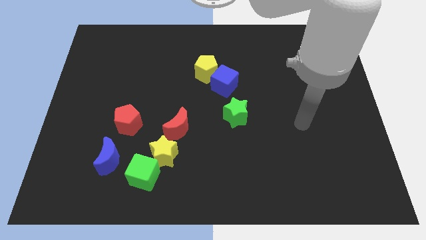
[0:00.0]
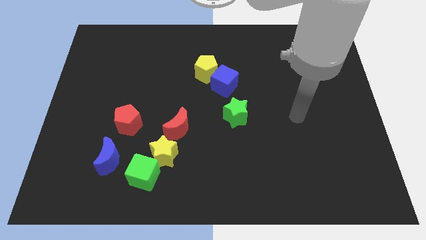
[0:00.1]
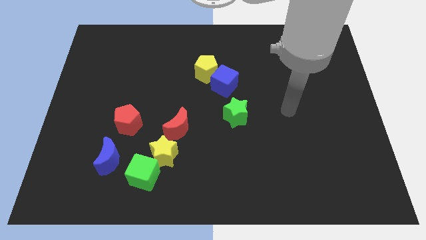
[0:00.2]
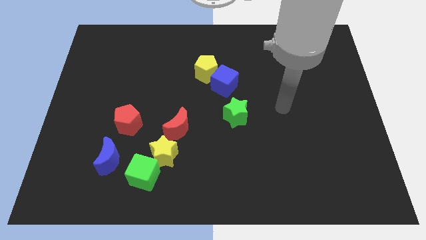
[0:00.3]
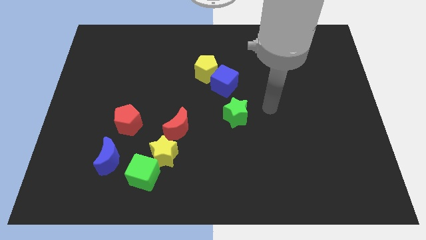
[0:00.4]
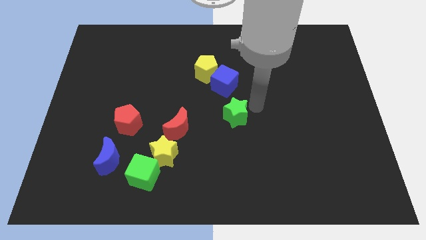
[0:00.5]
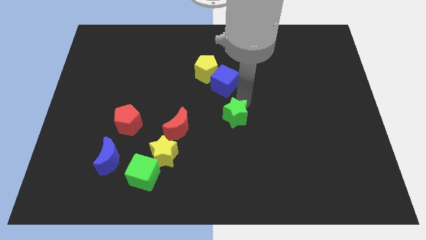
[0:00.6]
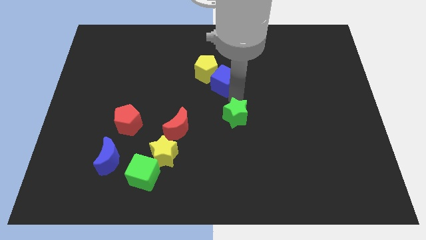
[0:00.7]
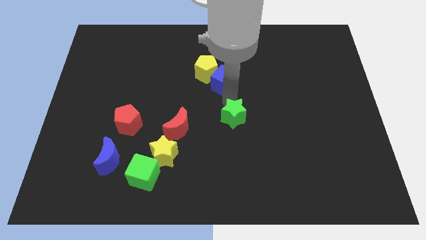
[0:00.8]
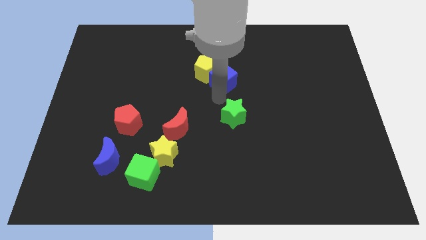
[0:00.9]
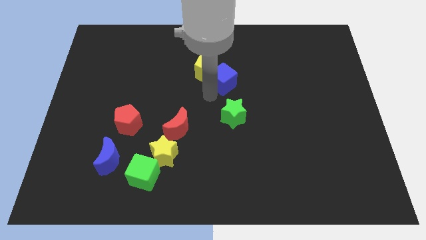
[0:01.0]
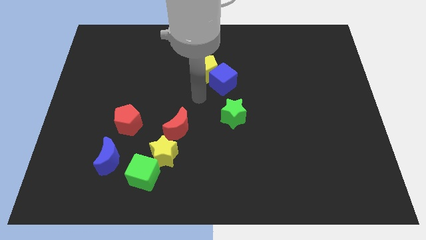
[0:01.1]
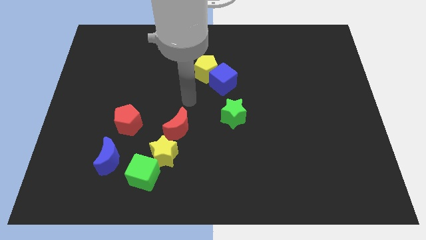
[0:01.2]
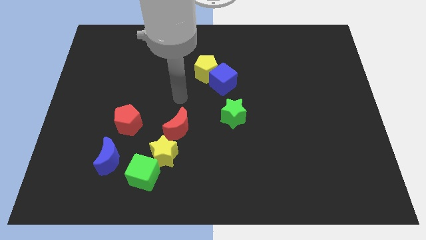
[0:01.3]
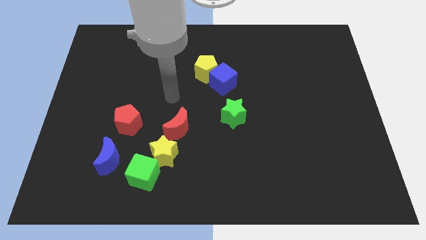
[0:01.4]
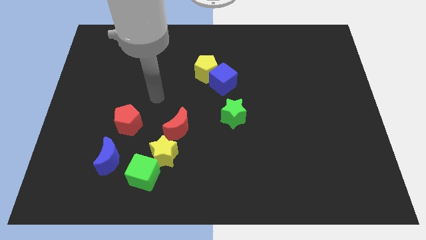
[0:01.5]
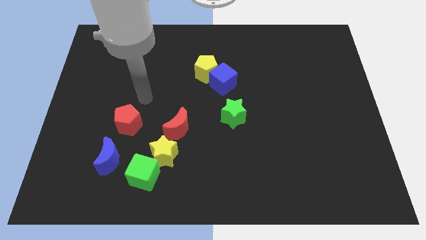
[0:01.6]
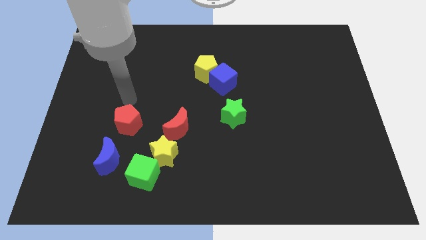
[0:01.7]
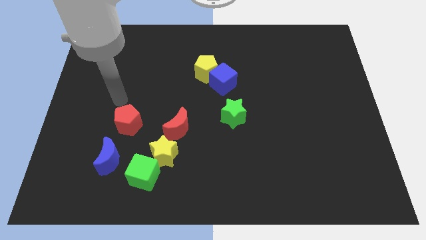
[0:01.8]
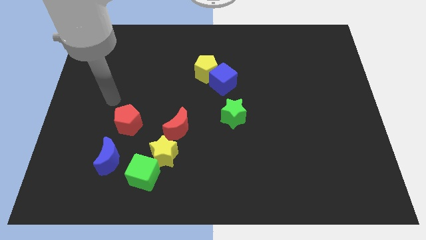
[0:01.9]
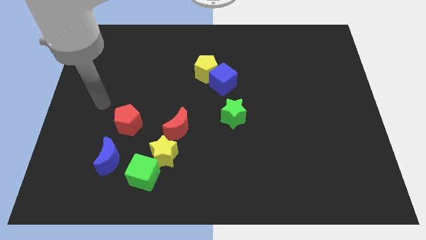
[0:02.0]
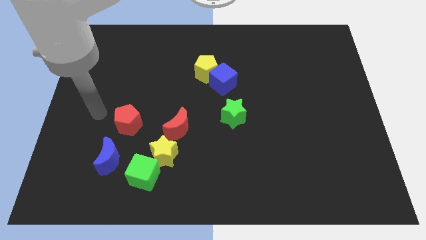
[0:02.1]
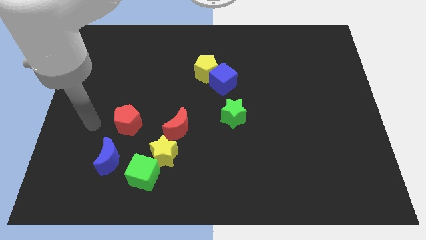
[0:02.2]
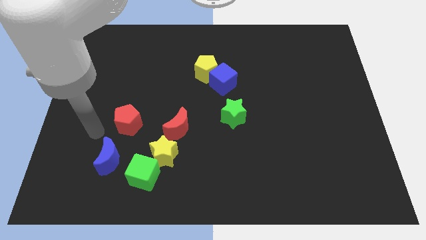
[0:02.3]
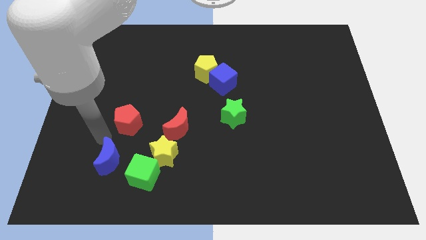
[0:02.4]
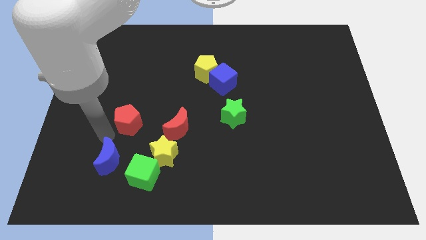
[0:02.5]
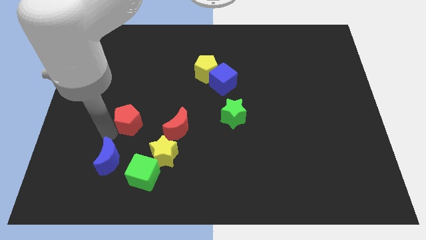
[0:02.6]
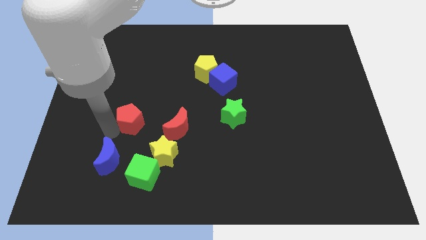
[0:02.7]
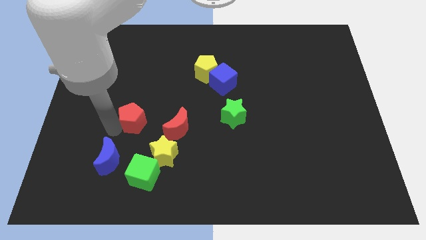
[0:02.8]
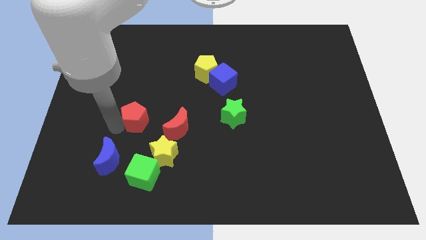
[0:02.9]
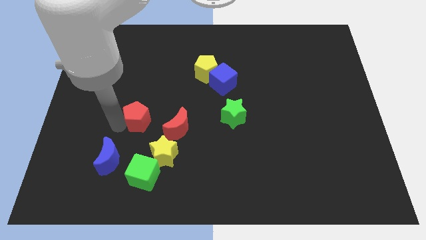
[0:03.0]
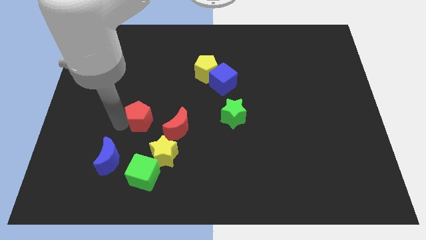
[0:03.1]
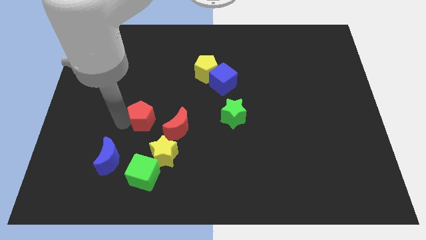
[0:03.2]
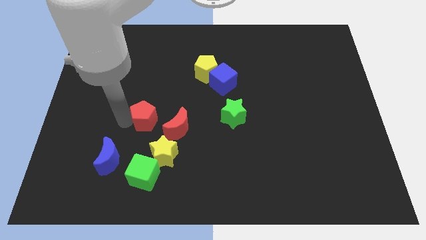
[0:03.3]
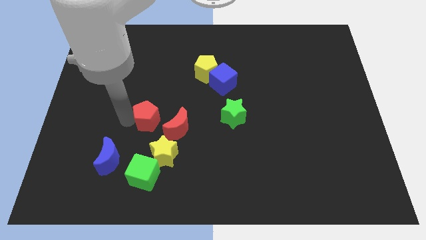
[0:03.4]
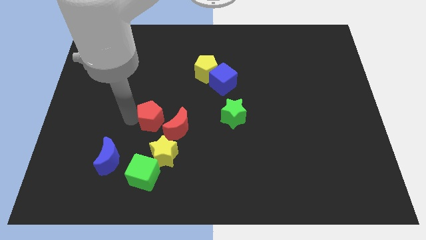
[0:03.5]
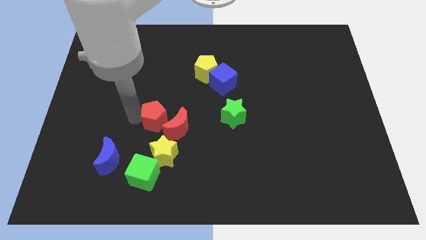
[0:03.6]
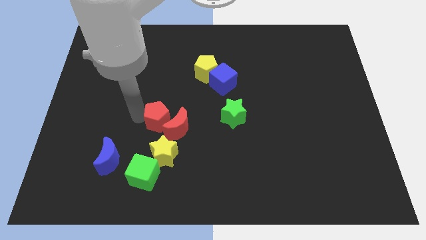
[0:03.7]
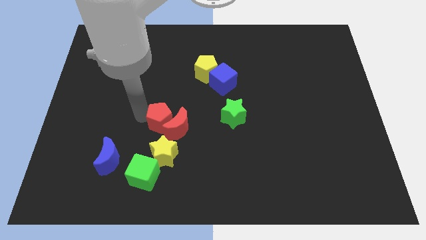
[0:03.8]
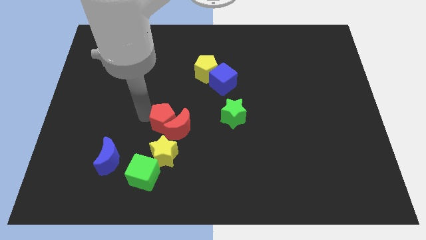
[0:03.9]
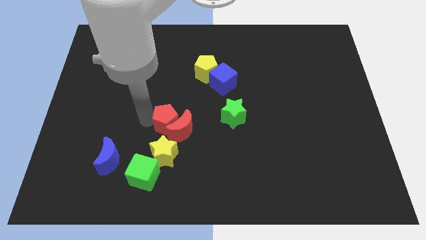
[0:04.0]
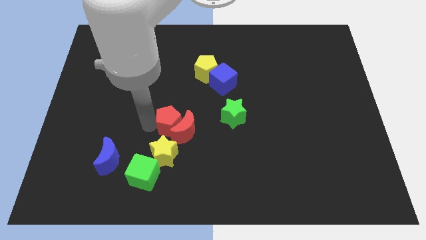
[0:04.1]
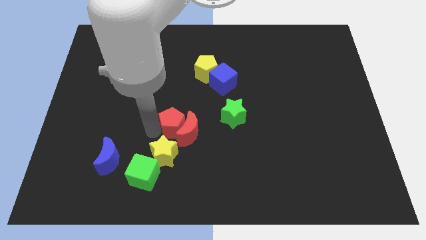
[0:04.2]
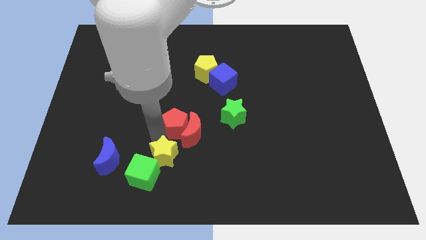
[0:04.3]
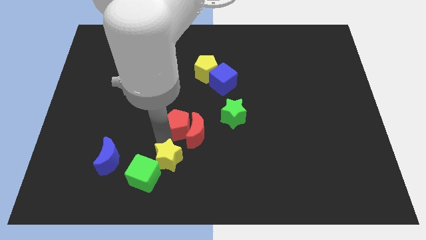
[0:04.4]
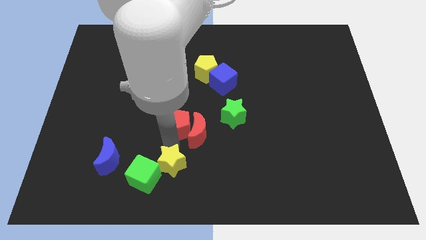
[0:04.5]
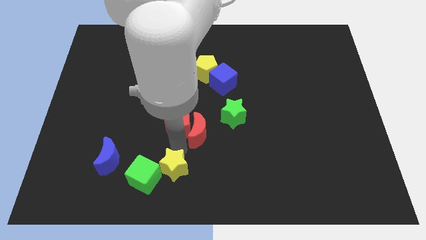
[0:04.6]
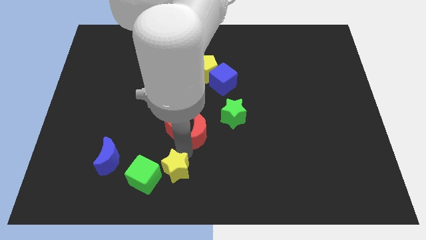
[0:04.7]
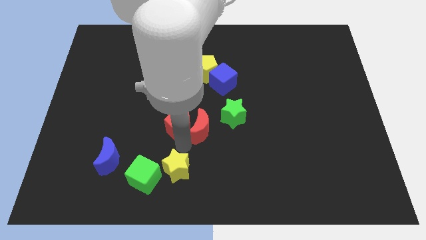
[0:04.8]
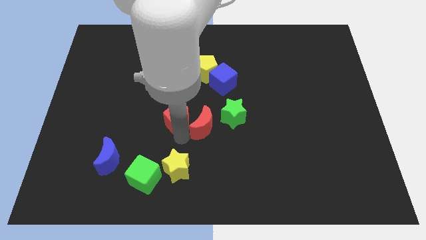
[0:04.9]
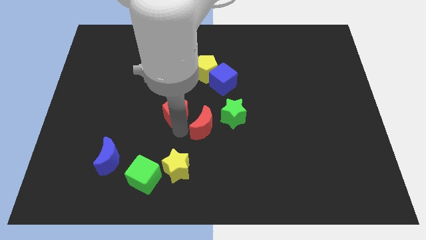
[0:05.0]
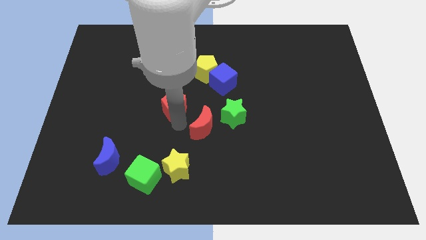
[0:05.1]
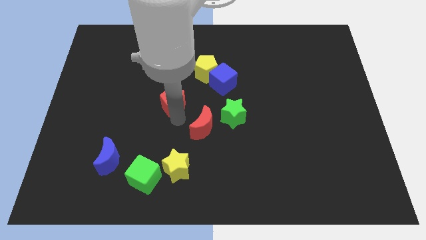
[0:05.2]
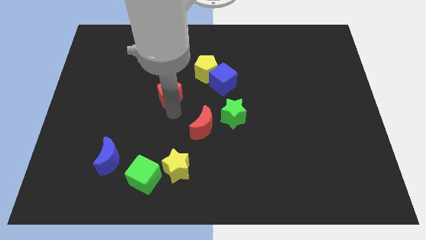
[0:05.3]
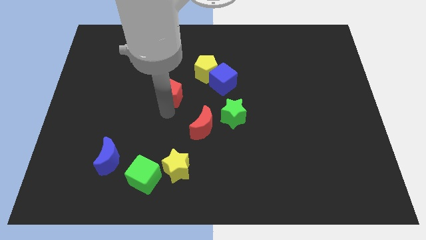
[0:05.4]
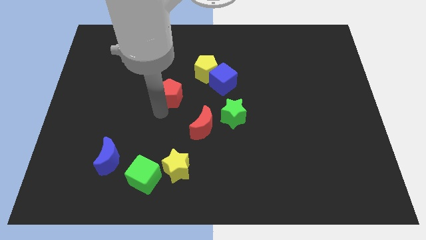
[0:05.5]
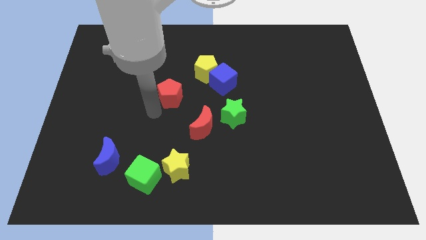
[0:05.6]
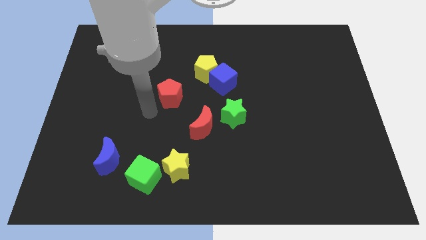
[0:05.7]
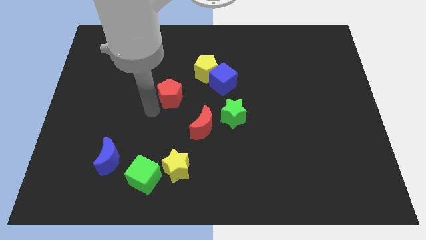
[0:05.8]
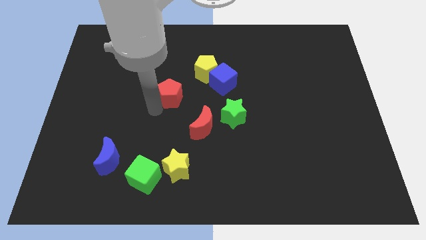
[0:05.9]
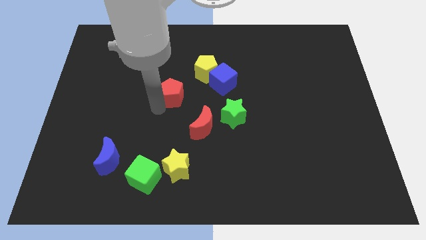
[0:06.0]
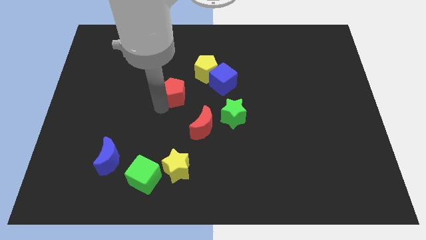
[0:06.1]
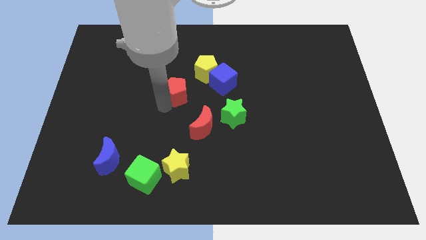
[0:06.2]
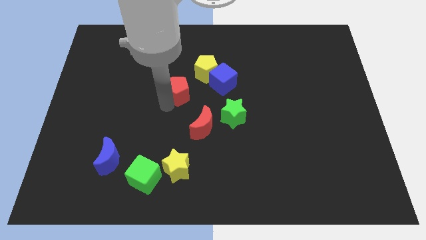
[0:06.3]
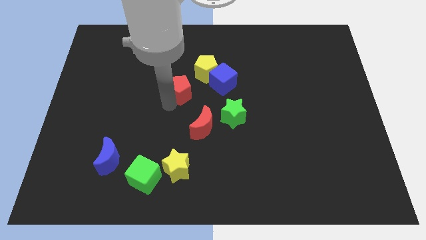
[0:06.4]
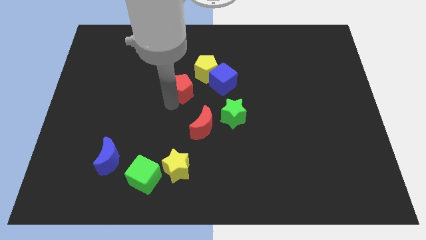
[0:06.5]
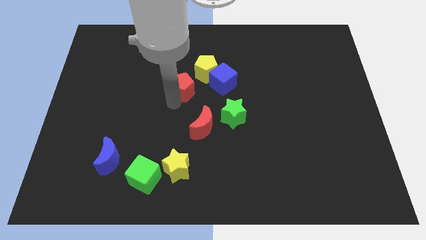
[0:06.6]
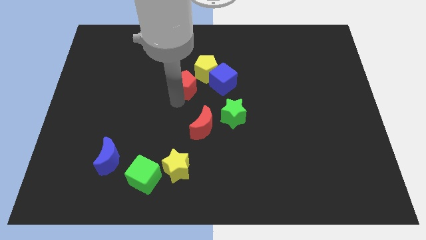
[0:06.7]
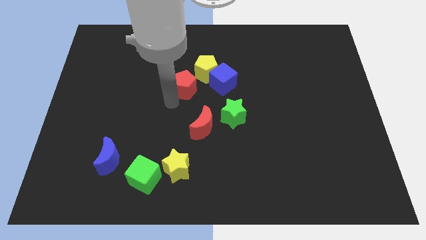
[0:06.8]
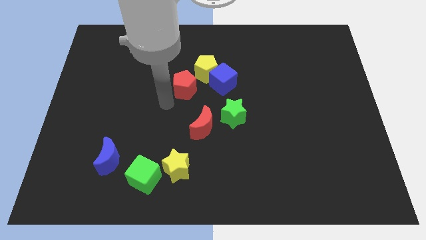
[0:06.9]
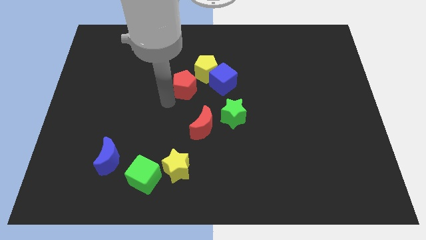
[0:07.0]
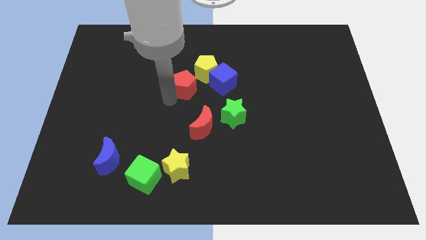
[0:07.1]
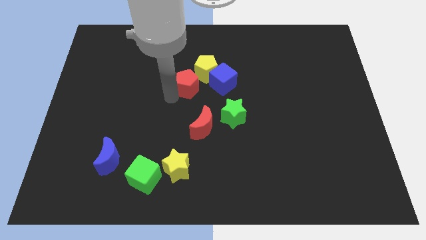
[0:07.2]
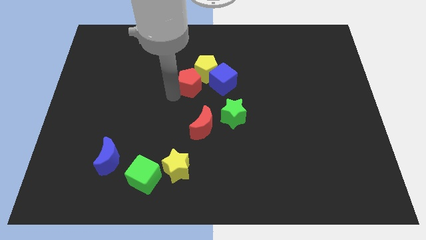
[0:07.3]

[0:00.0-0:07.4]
push the red pentagon to the yellow pentagon

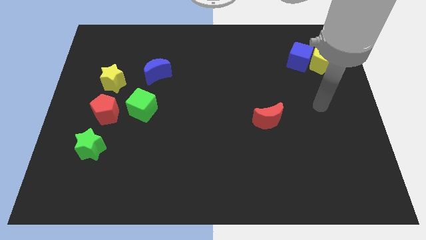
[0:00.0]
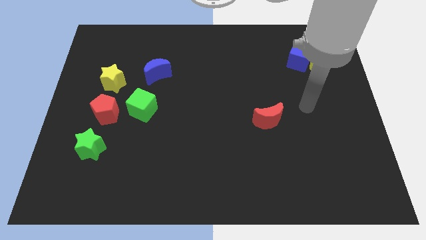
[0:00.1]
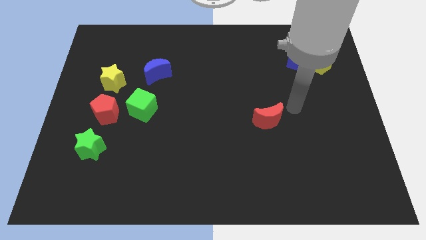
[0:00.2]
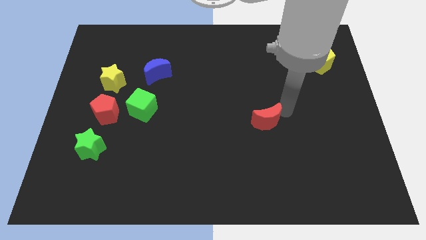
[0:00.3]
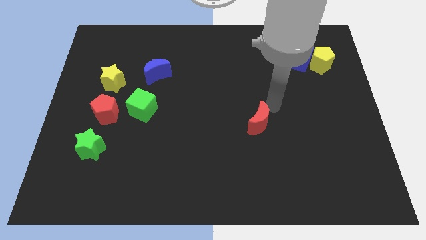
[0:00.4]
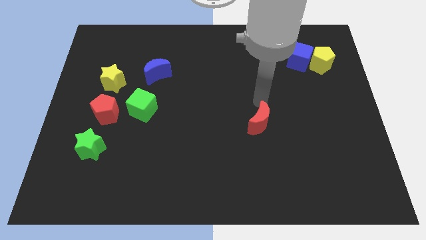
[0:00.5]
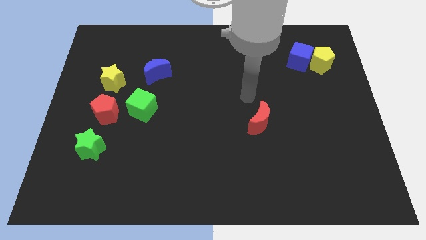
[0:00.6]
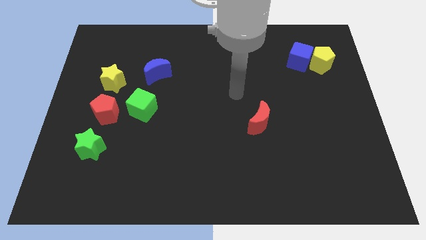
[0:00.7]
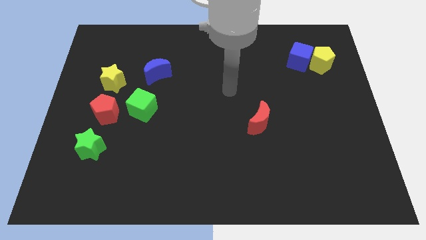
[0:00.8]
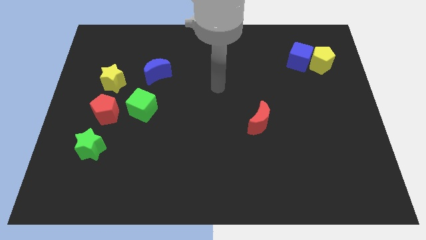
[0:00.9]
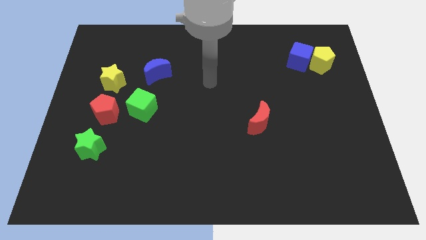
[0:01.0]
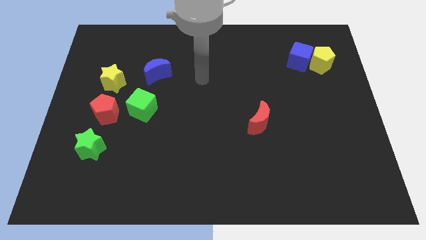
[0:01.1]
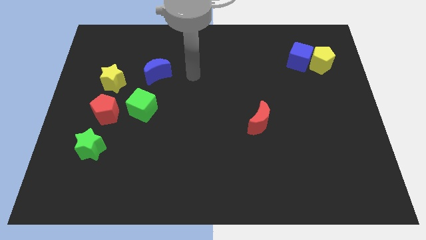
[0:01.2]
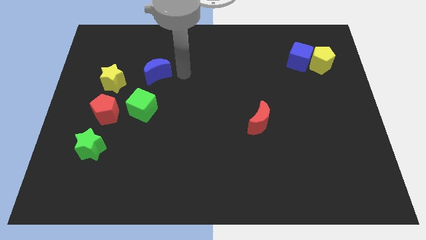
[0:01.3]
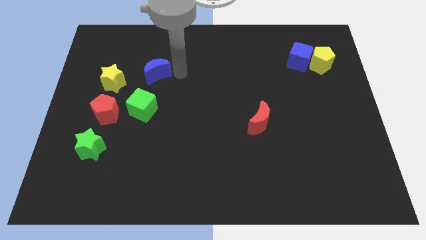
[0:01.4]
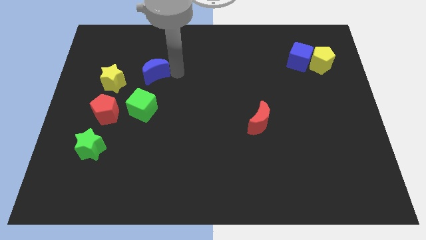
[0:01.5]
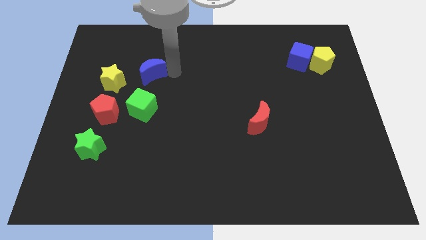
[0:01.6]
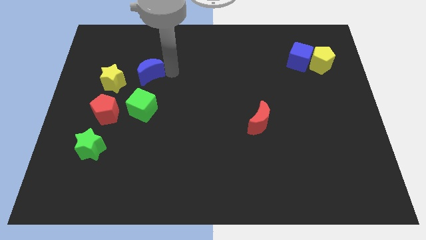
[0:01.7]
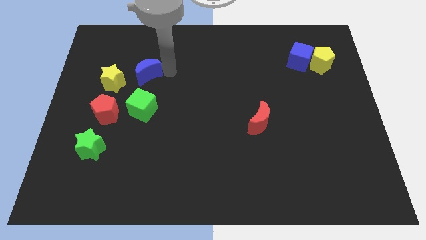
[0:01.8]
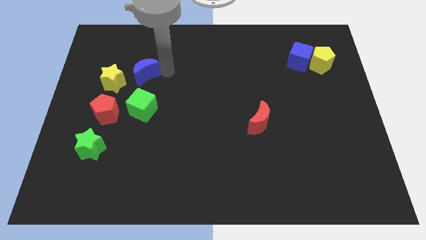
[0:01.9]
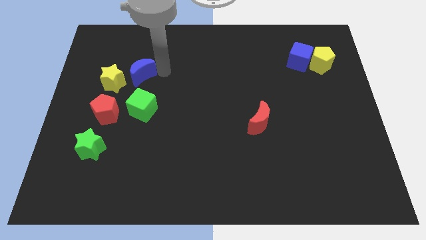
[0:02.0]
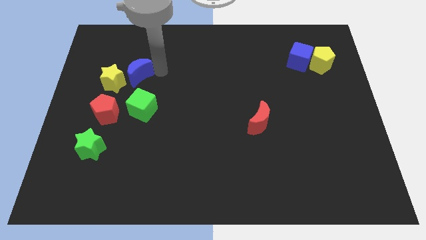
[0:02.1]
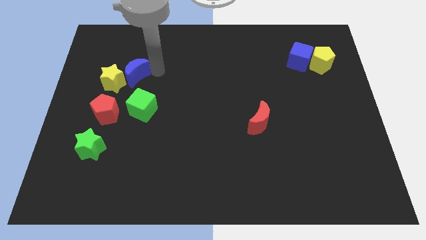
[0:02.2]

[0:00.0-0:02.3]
put the blue moon to the yellow star
